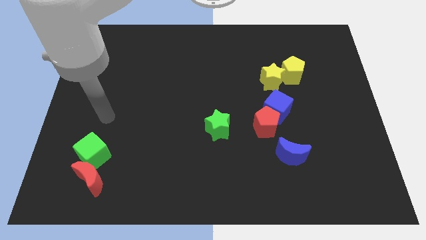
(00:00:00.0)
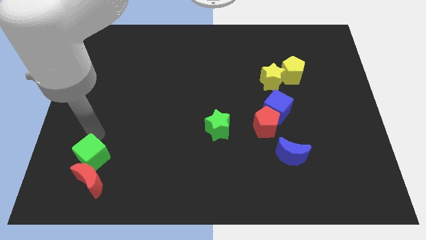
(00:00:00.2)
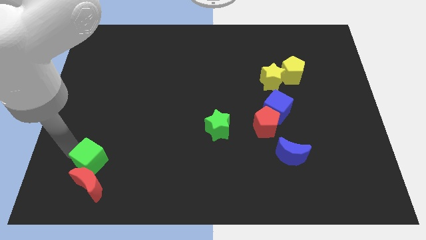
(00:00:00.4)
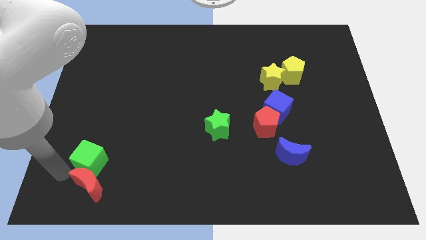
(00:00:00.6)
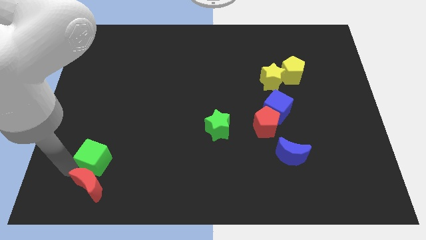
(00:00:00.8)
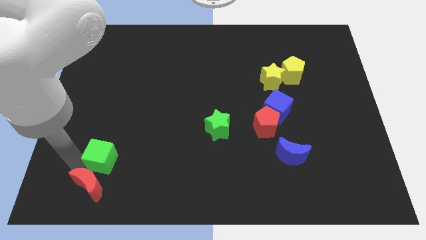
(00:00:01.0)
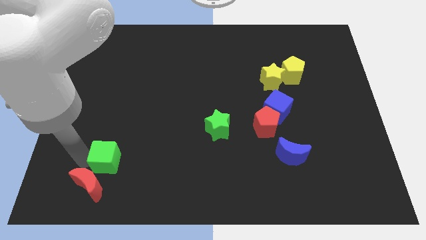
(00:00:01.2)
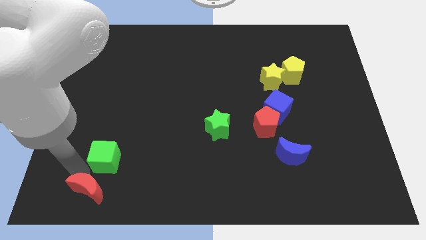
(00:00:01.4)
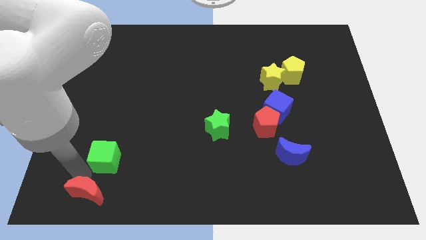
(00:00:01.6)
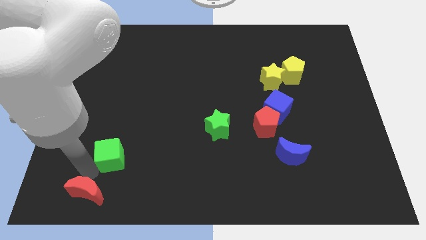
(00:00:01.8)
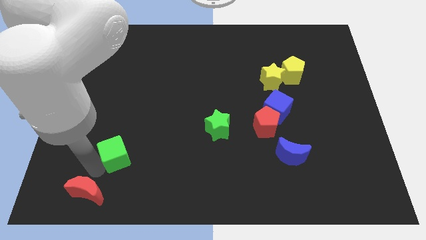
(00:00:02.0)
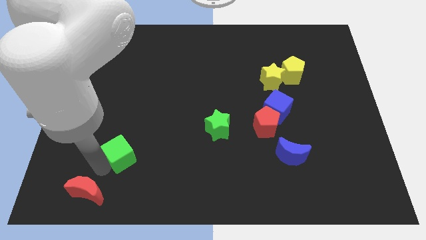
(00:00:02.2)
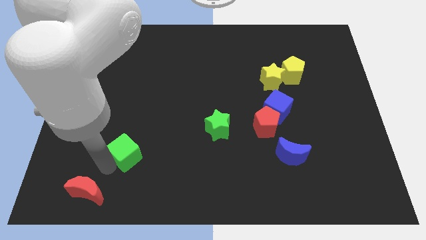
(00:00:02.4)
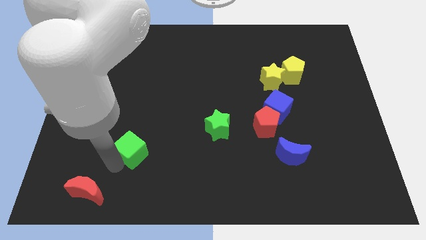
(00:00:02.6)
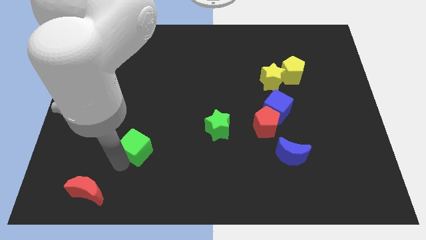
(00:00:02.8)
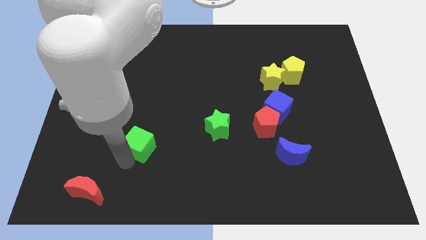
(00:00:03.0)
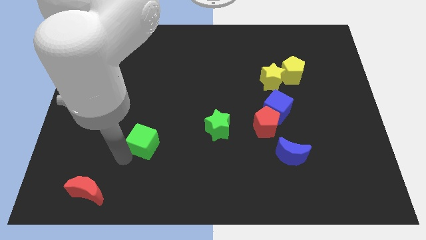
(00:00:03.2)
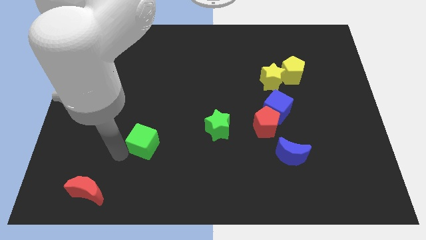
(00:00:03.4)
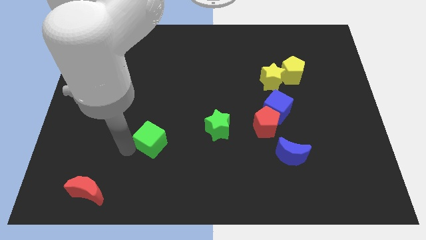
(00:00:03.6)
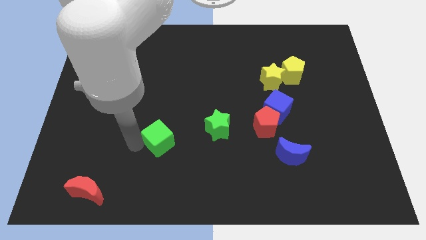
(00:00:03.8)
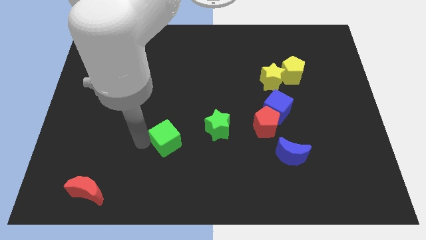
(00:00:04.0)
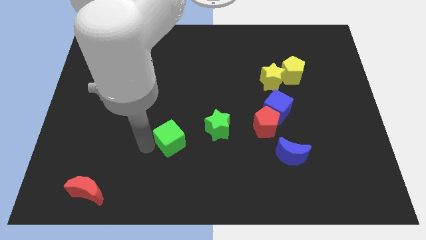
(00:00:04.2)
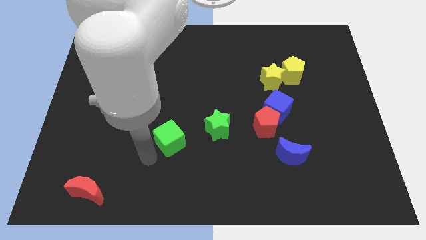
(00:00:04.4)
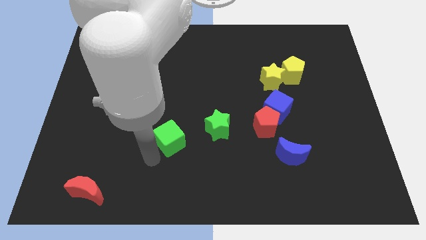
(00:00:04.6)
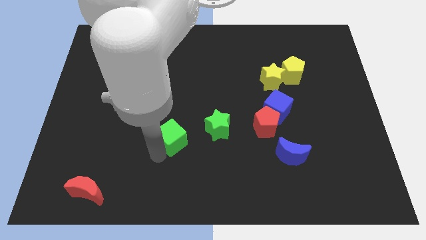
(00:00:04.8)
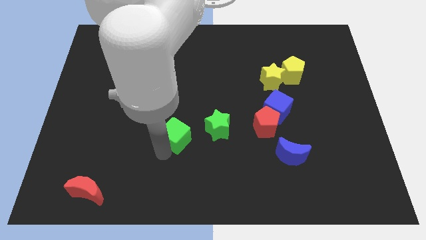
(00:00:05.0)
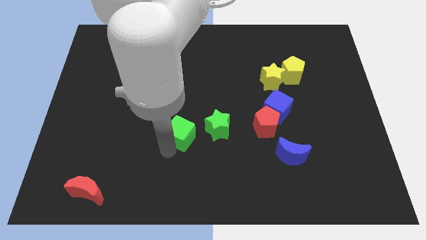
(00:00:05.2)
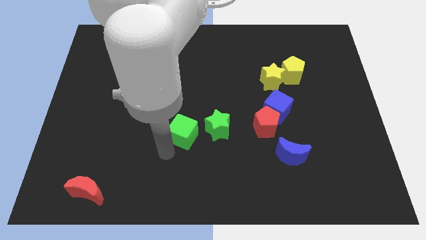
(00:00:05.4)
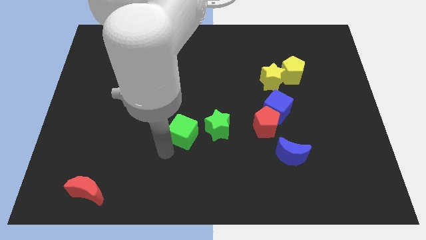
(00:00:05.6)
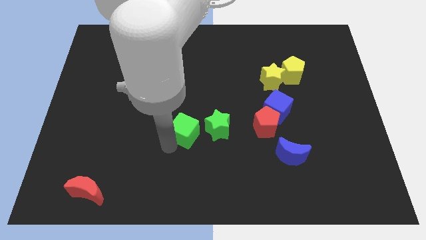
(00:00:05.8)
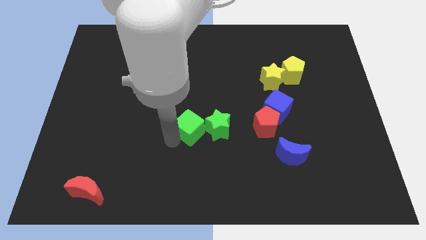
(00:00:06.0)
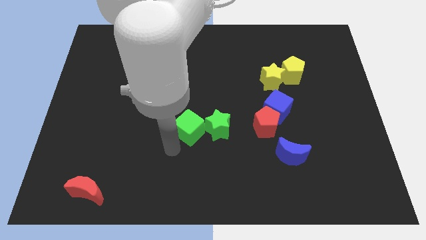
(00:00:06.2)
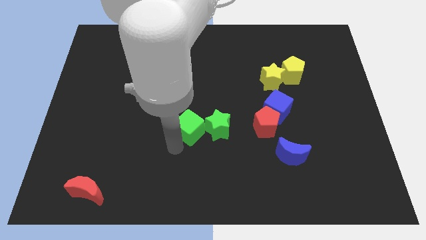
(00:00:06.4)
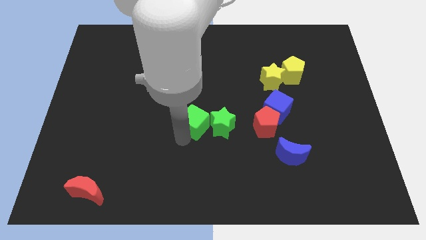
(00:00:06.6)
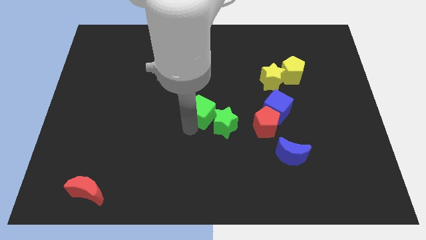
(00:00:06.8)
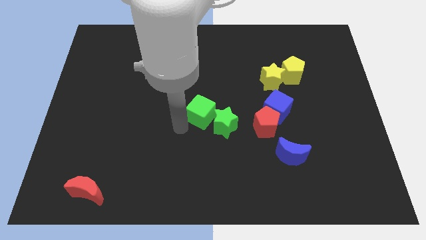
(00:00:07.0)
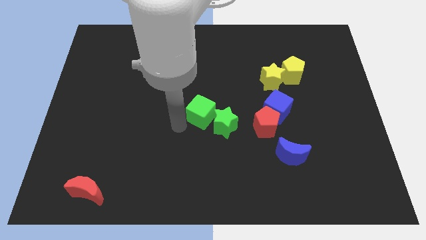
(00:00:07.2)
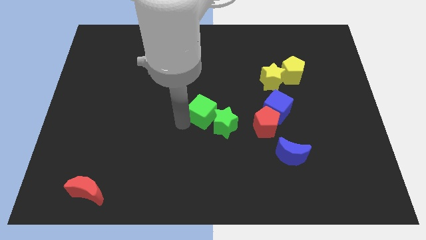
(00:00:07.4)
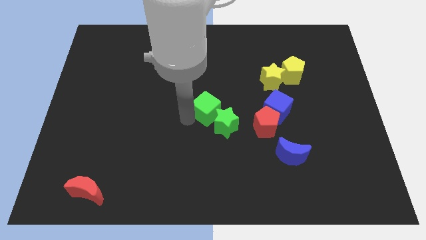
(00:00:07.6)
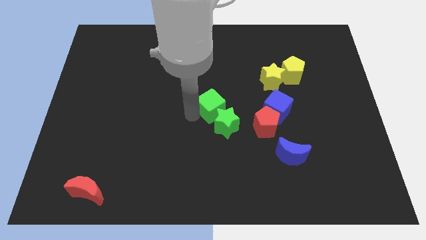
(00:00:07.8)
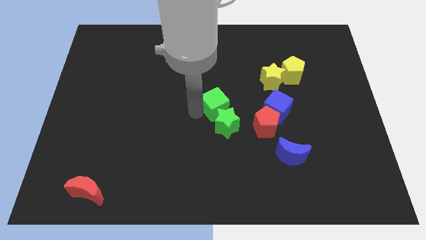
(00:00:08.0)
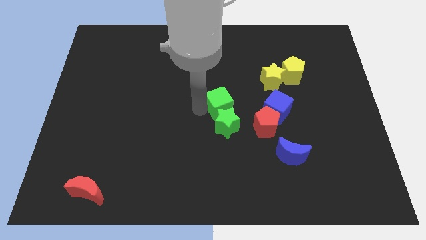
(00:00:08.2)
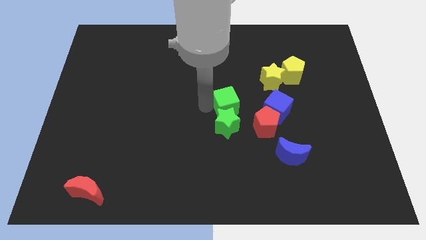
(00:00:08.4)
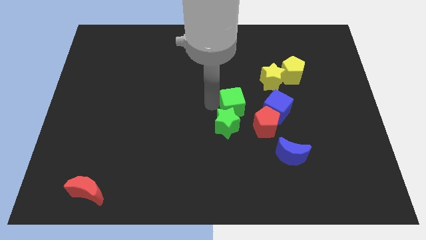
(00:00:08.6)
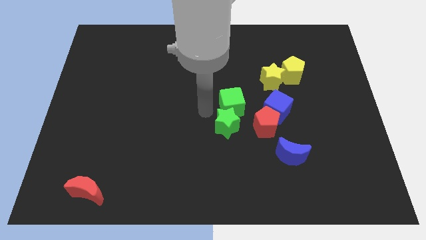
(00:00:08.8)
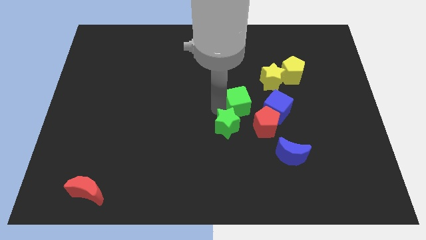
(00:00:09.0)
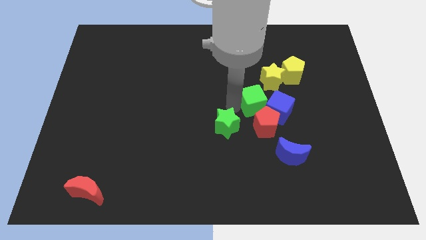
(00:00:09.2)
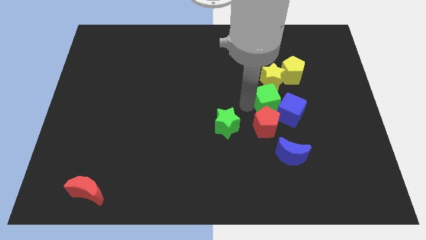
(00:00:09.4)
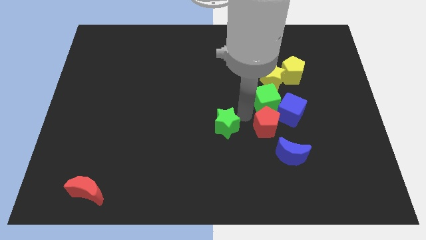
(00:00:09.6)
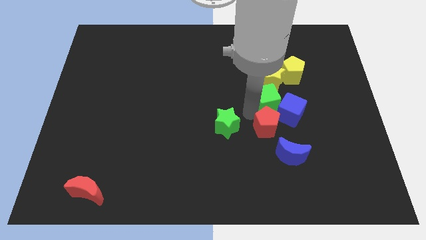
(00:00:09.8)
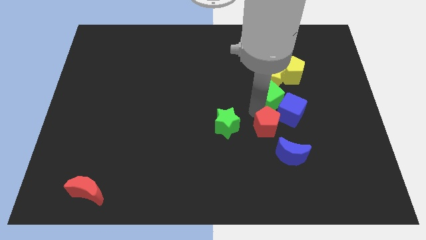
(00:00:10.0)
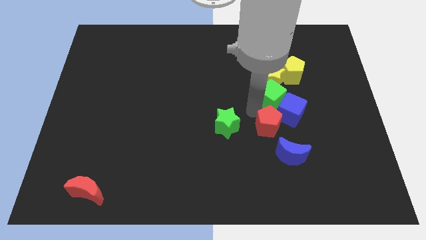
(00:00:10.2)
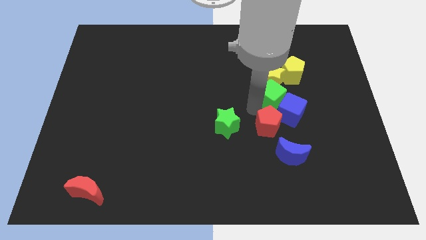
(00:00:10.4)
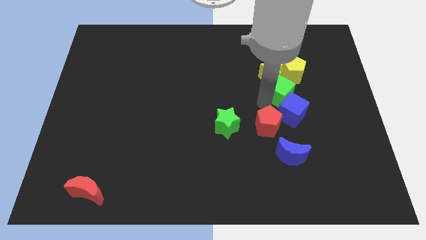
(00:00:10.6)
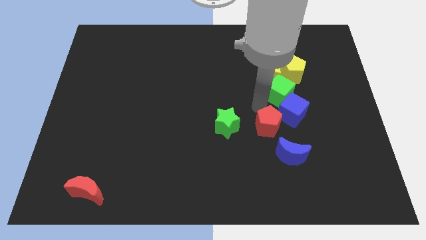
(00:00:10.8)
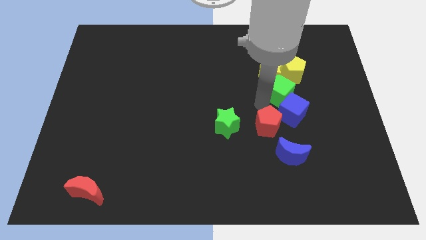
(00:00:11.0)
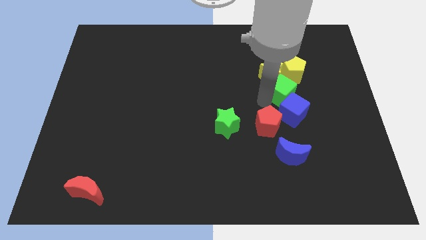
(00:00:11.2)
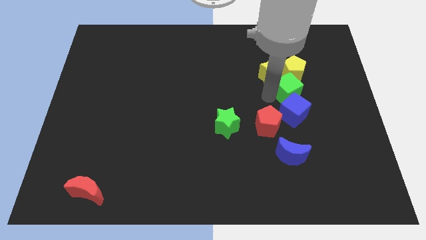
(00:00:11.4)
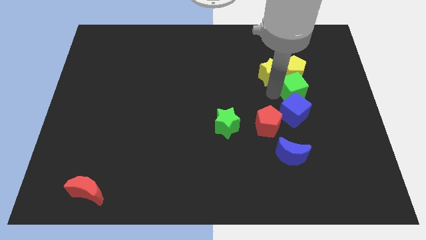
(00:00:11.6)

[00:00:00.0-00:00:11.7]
slide the green cube to the bottom right side of the yellow pentagon

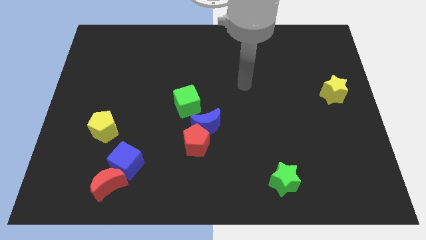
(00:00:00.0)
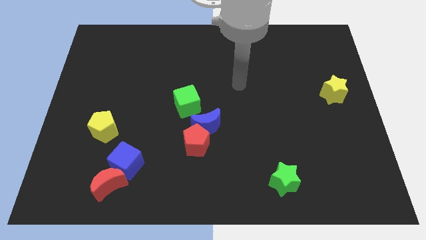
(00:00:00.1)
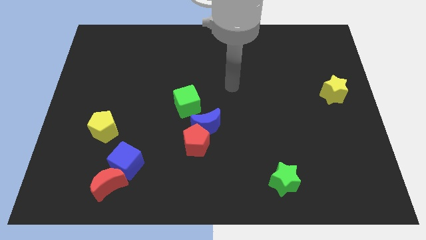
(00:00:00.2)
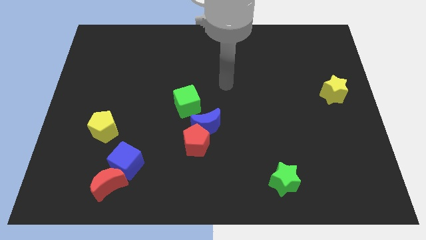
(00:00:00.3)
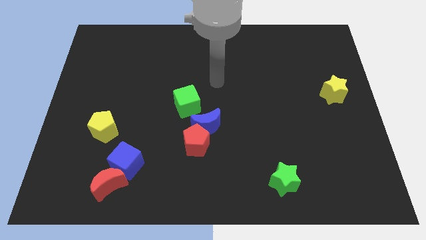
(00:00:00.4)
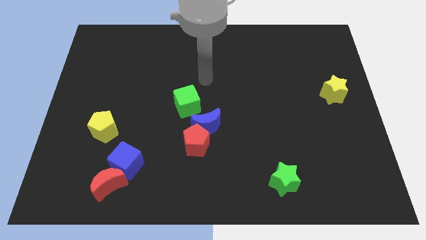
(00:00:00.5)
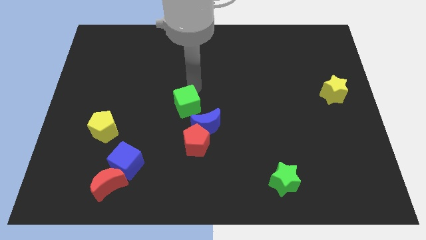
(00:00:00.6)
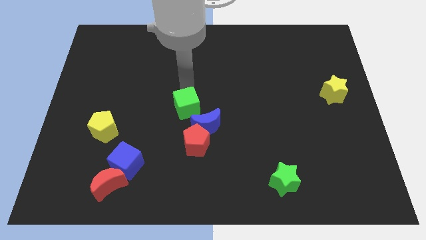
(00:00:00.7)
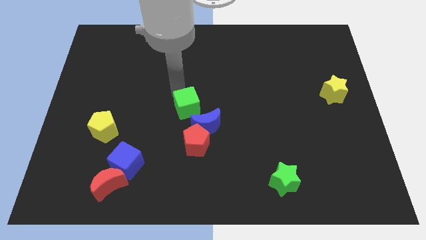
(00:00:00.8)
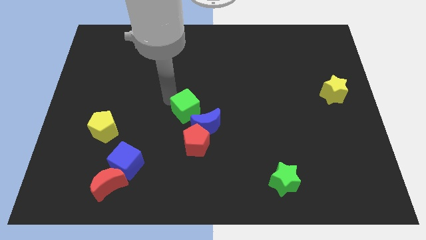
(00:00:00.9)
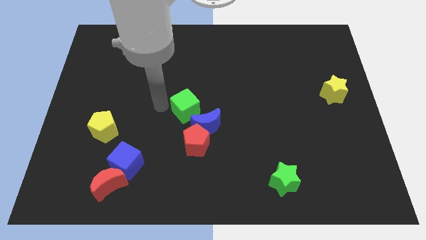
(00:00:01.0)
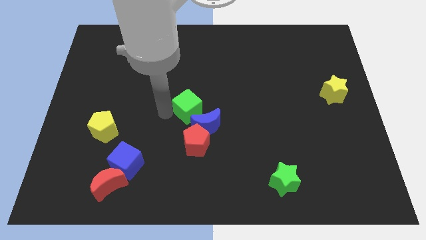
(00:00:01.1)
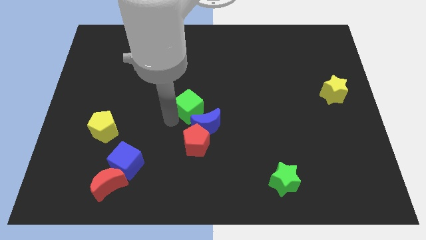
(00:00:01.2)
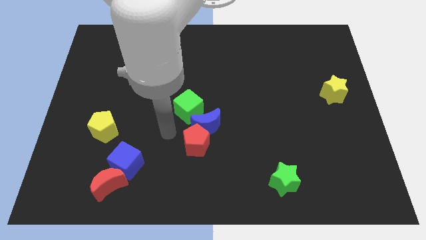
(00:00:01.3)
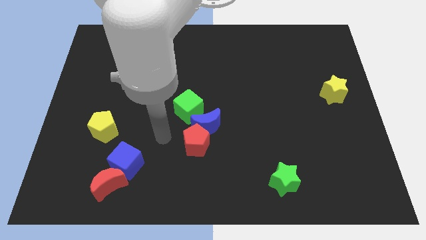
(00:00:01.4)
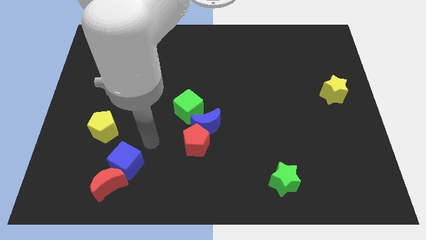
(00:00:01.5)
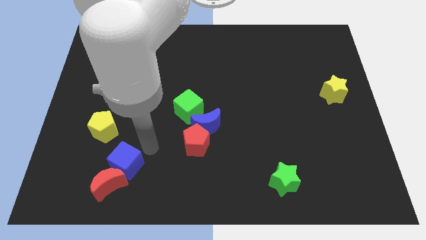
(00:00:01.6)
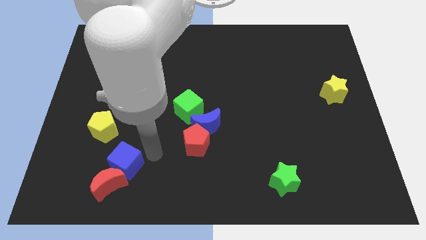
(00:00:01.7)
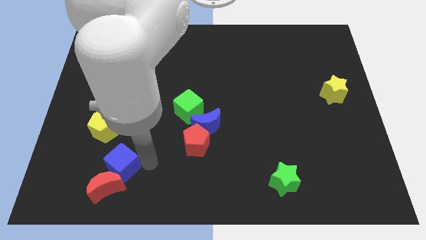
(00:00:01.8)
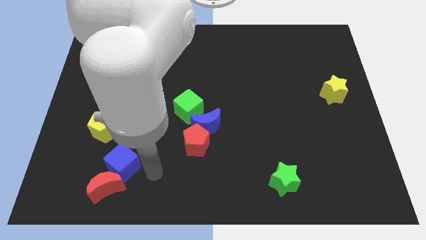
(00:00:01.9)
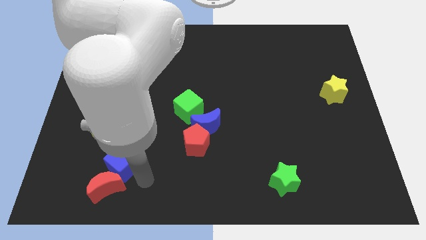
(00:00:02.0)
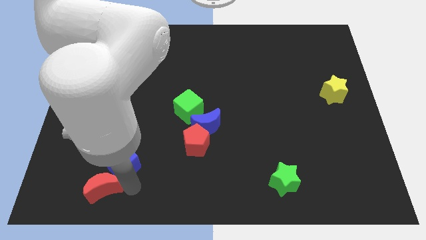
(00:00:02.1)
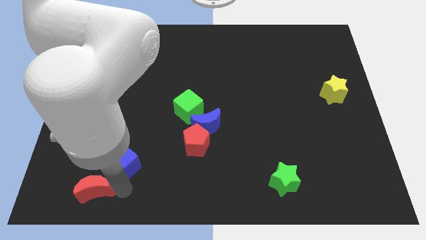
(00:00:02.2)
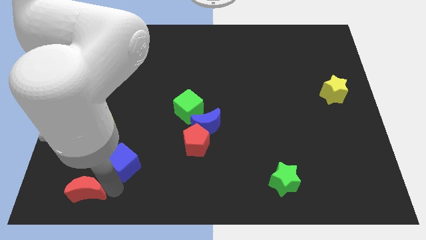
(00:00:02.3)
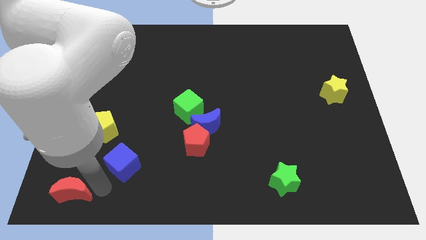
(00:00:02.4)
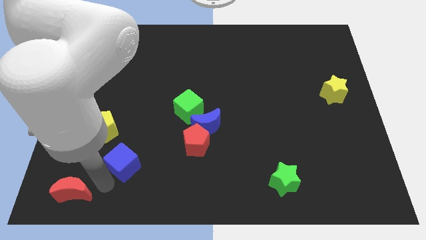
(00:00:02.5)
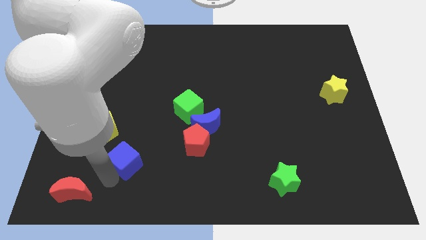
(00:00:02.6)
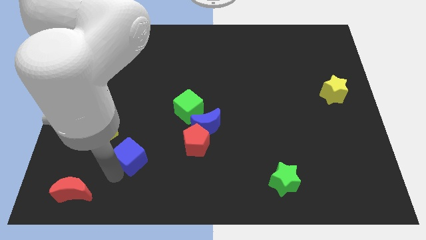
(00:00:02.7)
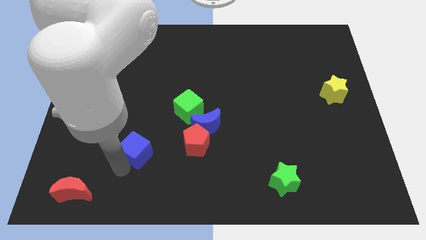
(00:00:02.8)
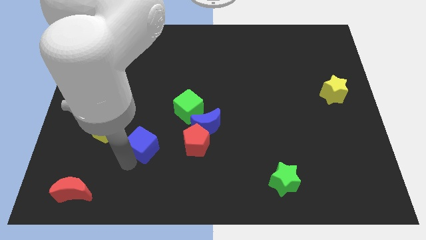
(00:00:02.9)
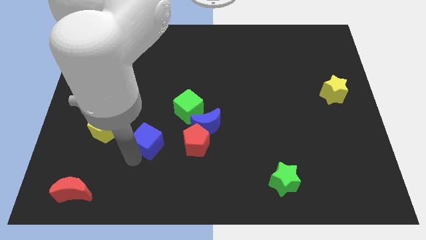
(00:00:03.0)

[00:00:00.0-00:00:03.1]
slide the blue cube to the bottom left side of the green cube
